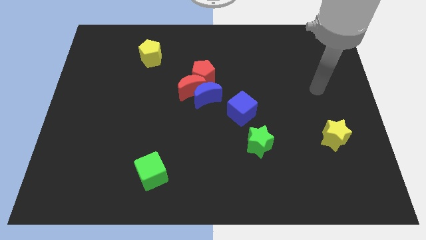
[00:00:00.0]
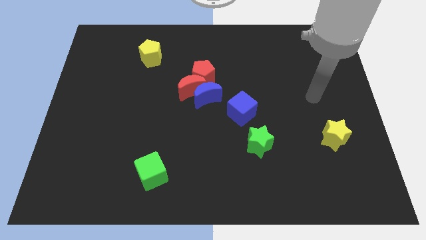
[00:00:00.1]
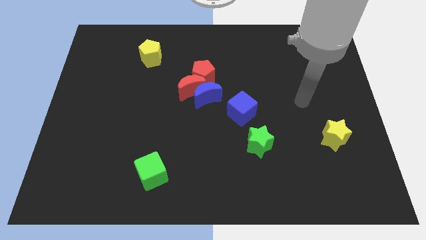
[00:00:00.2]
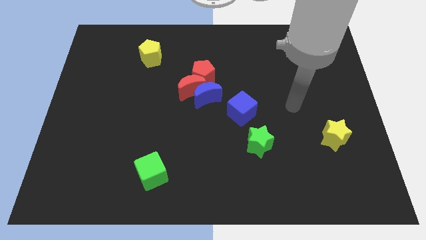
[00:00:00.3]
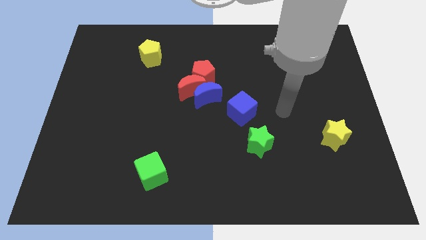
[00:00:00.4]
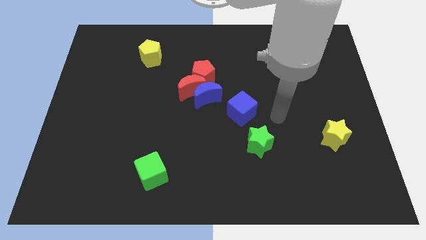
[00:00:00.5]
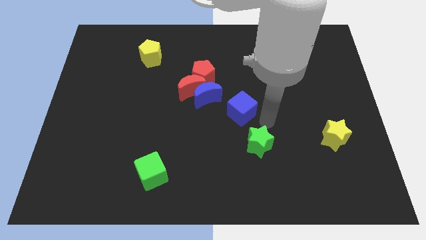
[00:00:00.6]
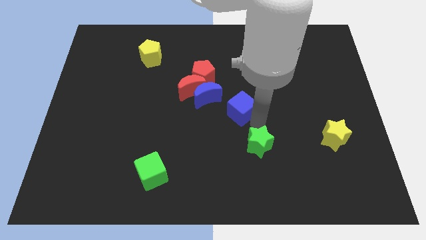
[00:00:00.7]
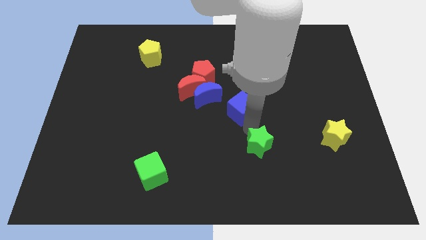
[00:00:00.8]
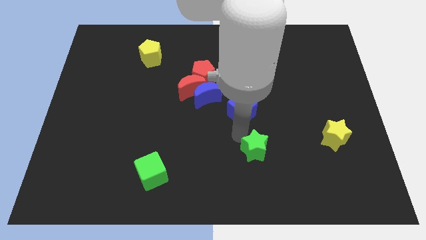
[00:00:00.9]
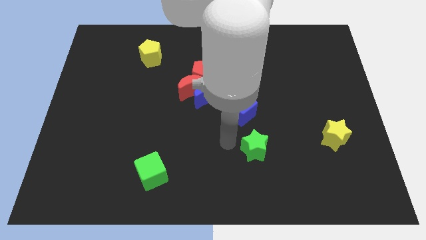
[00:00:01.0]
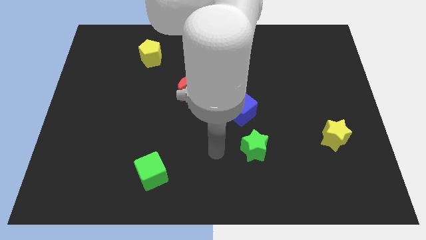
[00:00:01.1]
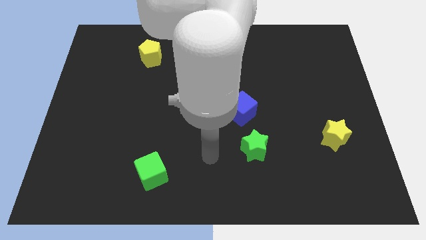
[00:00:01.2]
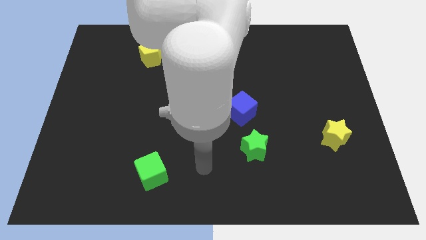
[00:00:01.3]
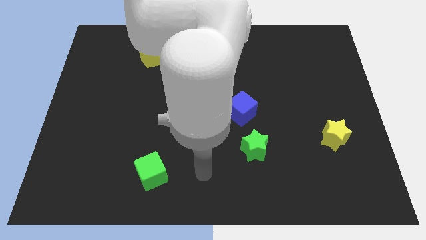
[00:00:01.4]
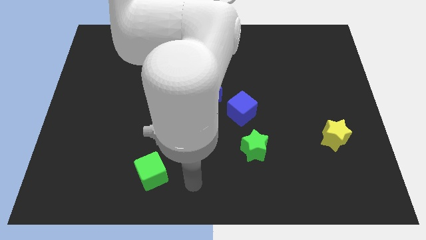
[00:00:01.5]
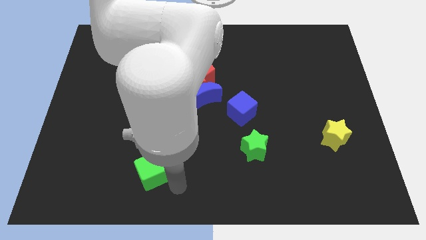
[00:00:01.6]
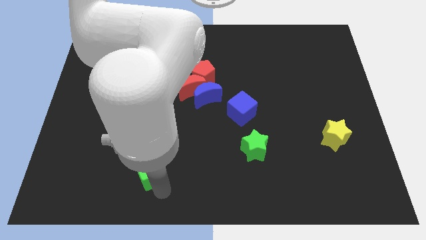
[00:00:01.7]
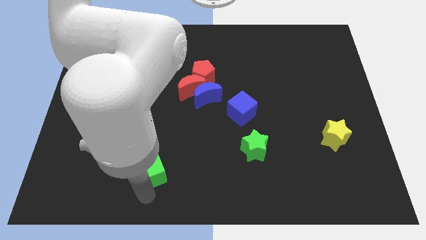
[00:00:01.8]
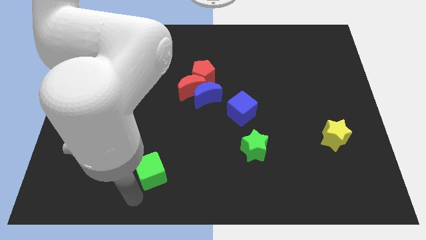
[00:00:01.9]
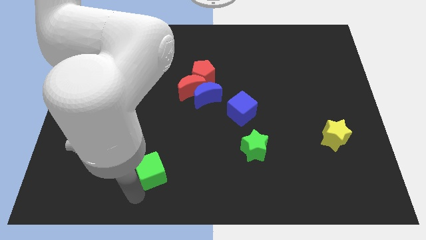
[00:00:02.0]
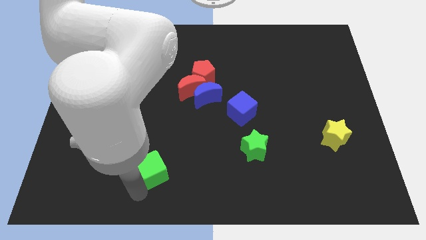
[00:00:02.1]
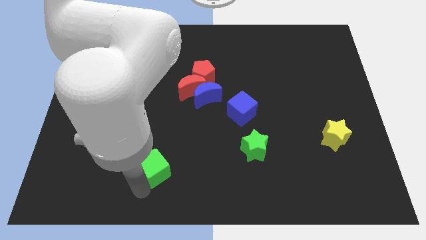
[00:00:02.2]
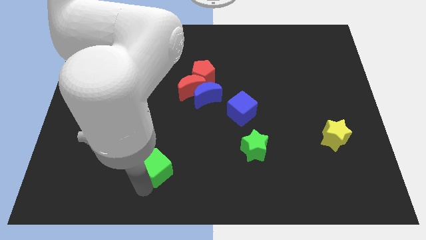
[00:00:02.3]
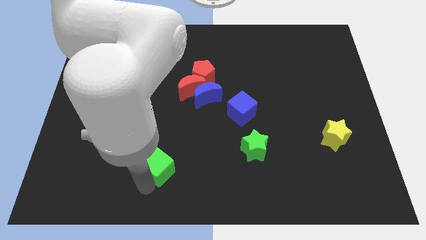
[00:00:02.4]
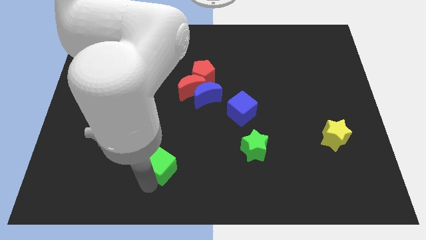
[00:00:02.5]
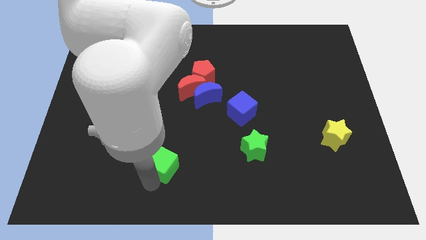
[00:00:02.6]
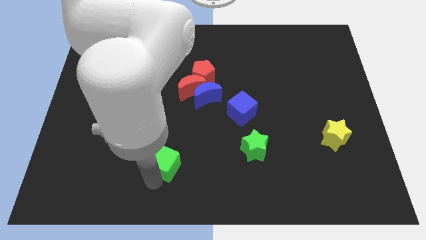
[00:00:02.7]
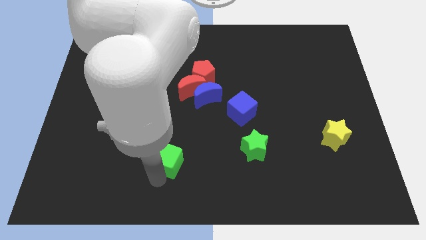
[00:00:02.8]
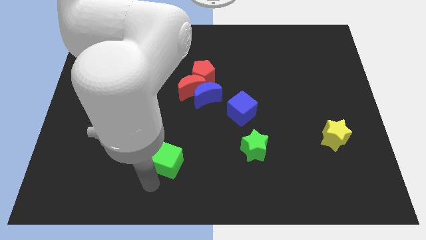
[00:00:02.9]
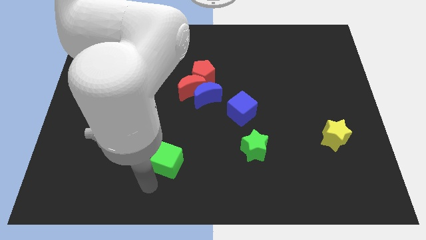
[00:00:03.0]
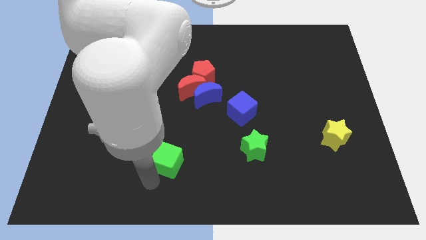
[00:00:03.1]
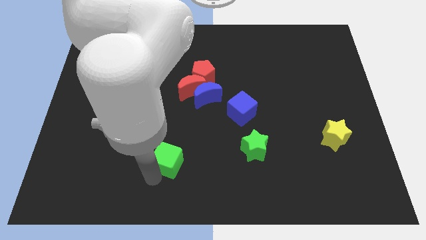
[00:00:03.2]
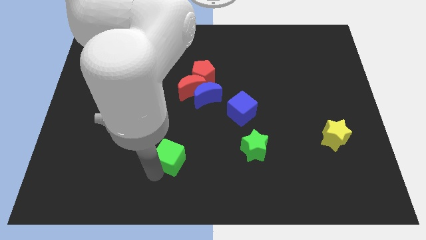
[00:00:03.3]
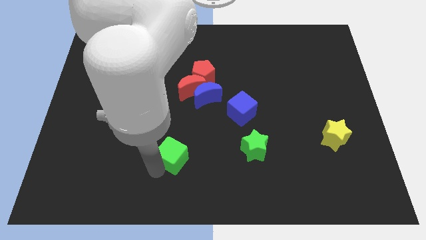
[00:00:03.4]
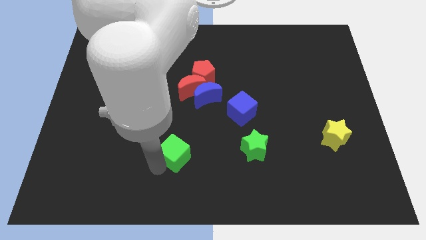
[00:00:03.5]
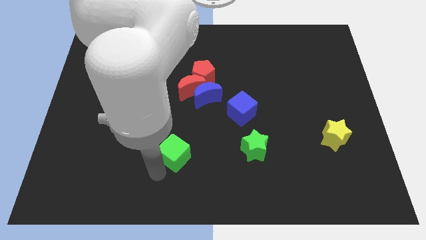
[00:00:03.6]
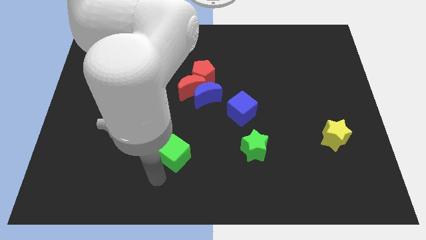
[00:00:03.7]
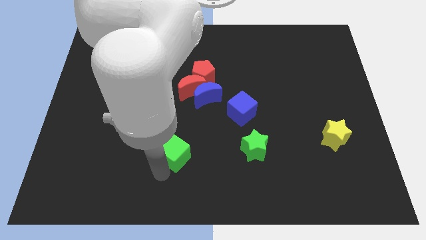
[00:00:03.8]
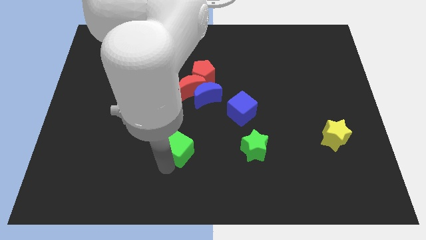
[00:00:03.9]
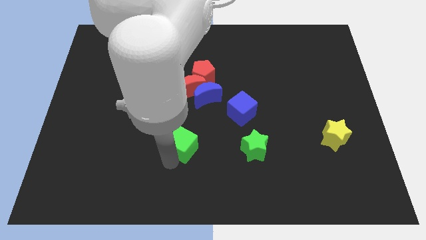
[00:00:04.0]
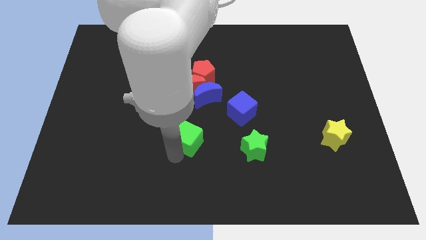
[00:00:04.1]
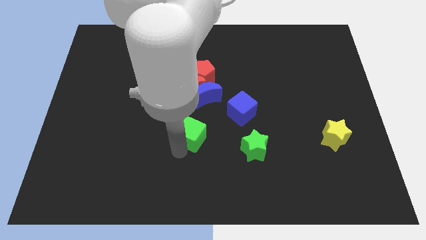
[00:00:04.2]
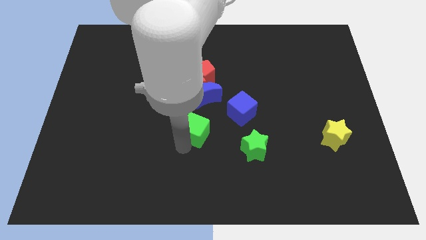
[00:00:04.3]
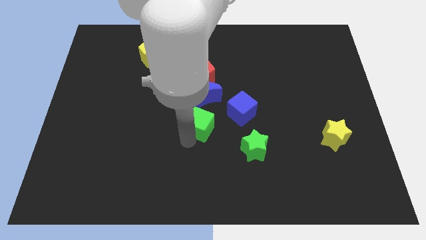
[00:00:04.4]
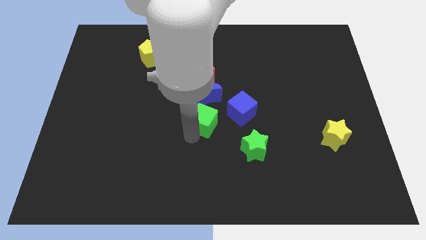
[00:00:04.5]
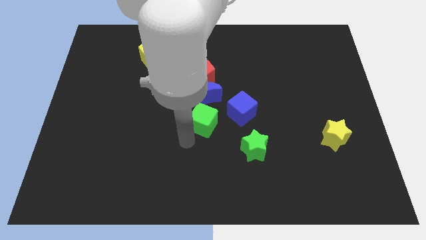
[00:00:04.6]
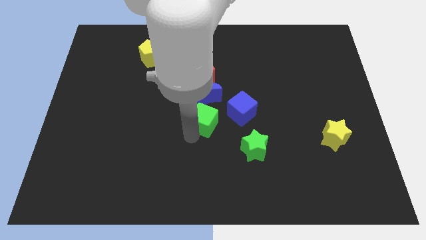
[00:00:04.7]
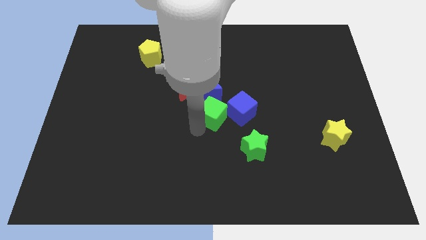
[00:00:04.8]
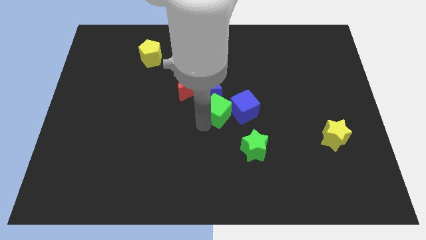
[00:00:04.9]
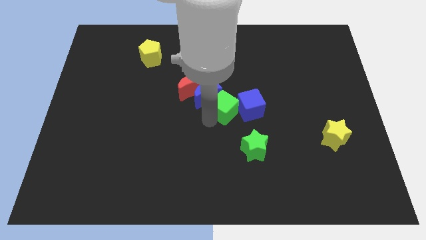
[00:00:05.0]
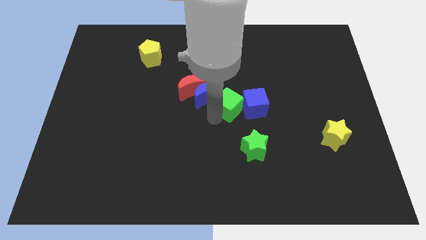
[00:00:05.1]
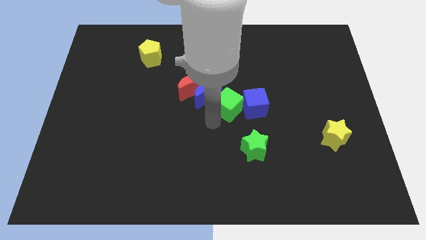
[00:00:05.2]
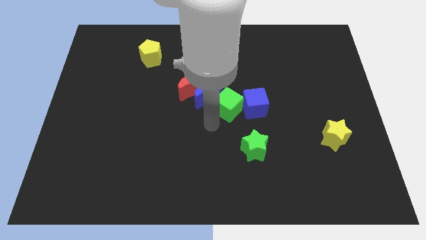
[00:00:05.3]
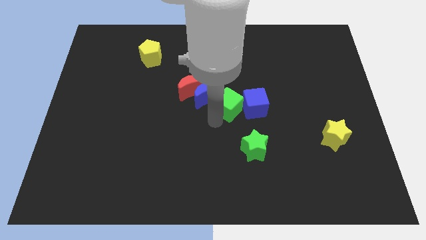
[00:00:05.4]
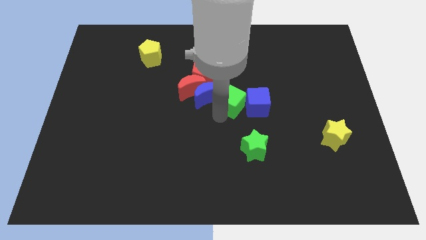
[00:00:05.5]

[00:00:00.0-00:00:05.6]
put the green cube above the green star

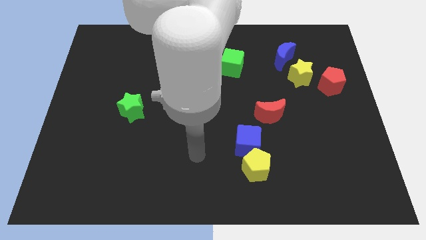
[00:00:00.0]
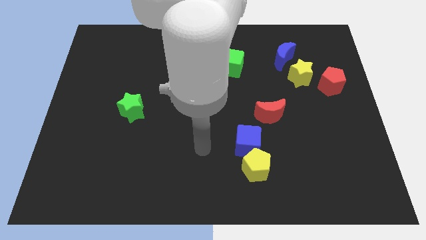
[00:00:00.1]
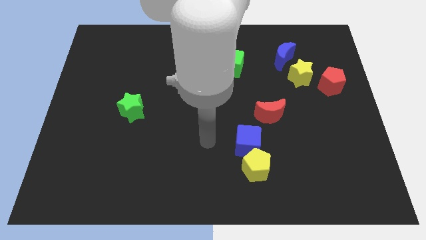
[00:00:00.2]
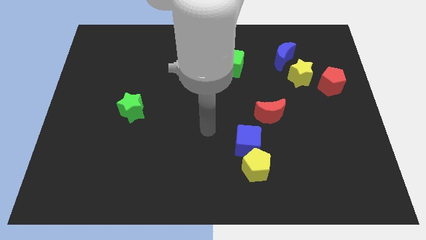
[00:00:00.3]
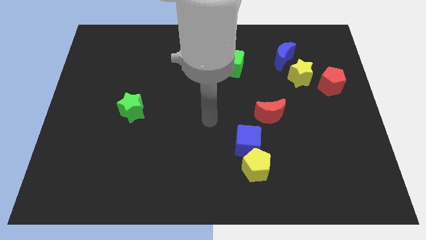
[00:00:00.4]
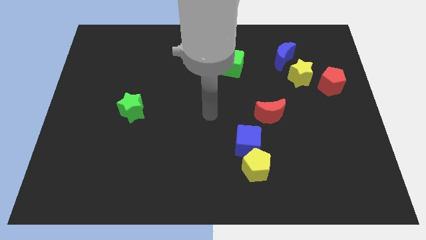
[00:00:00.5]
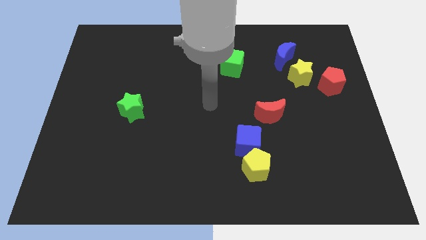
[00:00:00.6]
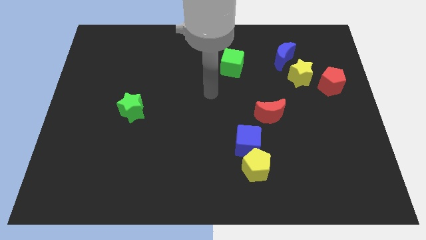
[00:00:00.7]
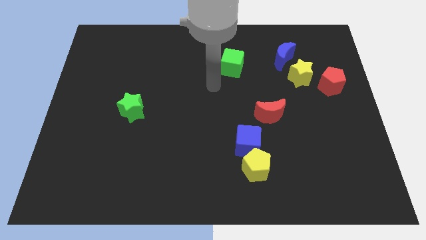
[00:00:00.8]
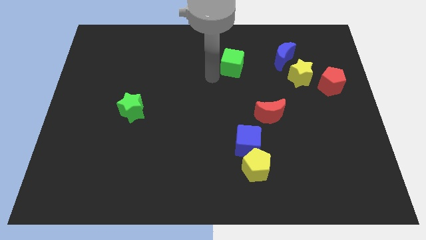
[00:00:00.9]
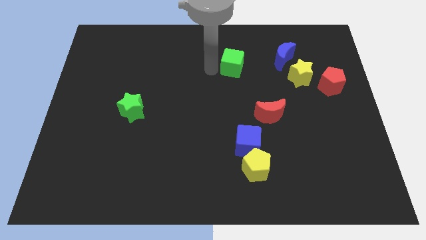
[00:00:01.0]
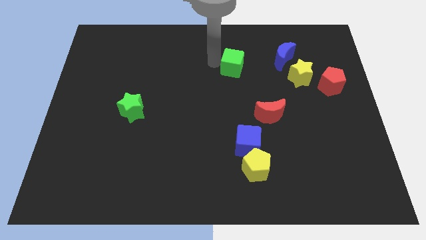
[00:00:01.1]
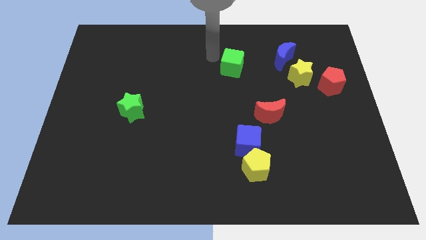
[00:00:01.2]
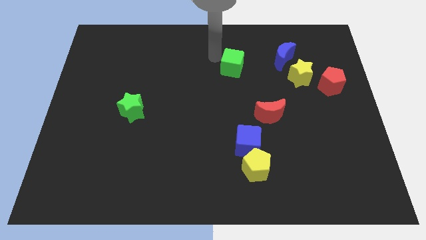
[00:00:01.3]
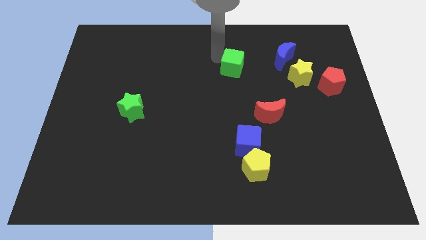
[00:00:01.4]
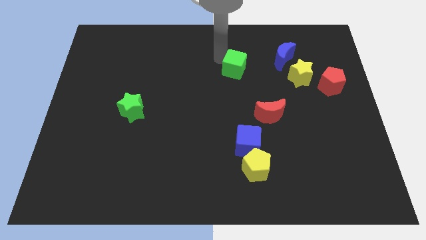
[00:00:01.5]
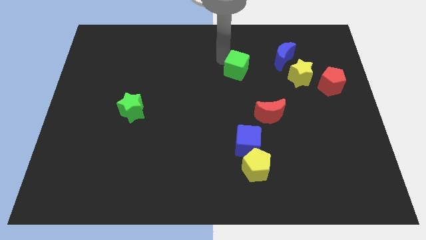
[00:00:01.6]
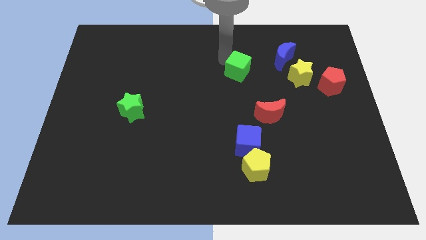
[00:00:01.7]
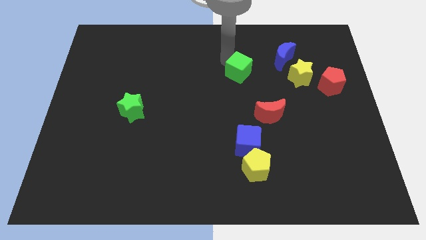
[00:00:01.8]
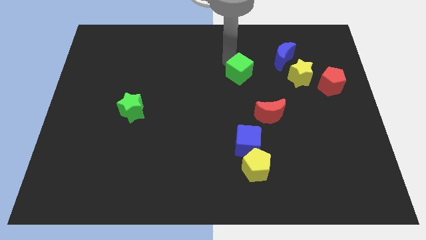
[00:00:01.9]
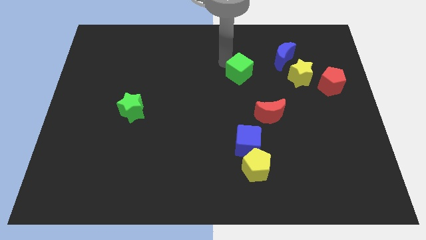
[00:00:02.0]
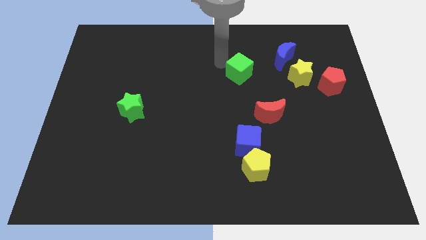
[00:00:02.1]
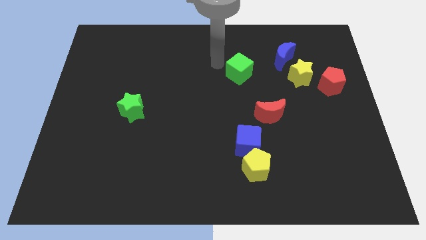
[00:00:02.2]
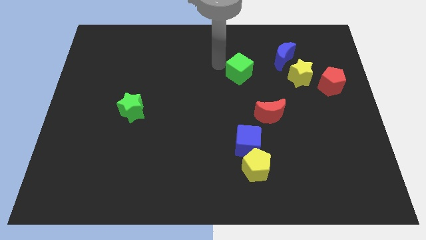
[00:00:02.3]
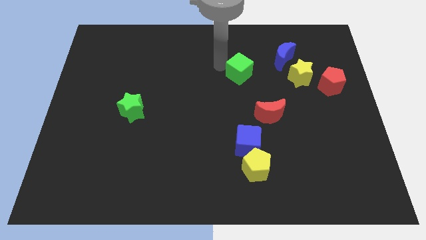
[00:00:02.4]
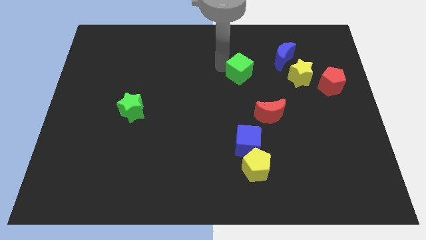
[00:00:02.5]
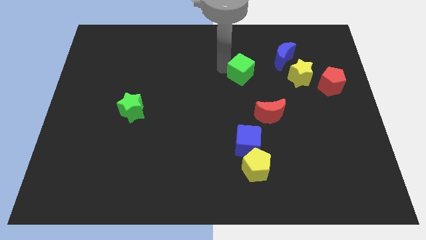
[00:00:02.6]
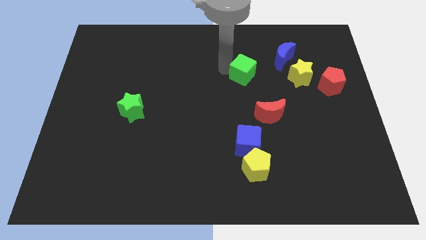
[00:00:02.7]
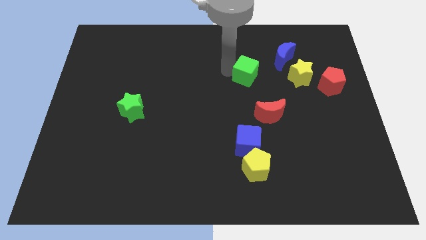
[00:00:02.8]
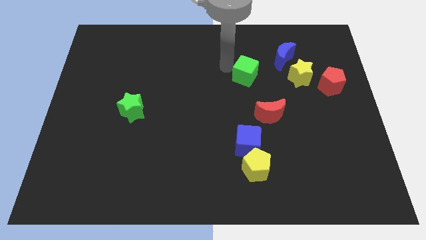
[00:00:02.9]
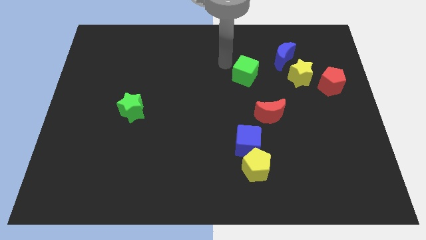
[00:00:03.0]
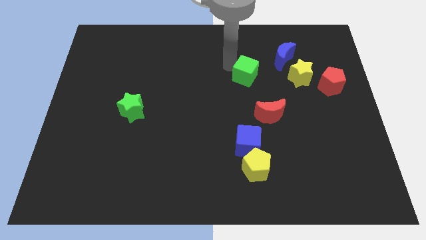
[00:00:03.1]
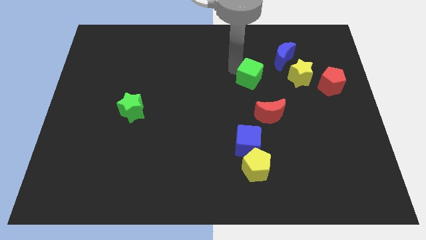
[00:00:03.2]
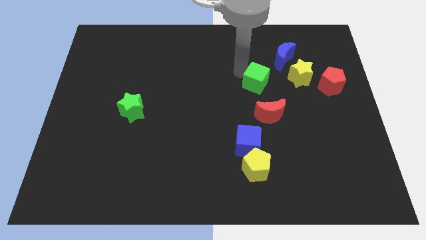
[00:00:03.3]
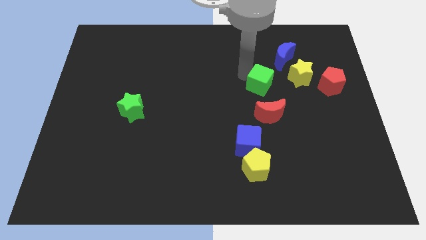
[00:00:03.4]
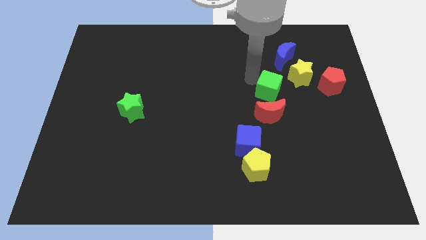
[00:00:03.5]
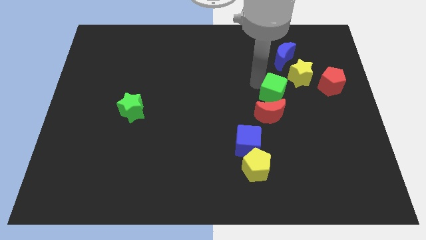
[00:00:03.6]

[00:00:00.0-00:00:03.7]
slide the green cube to the top right side of the red moon
